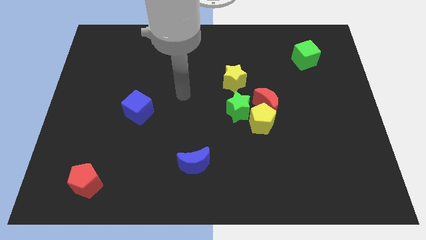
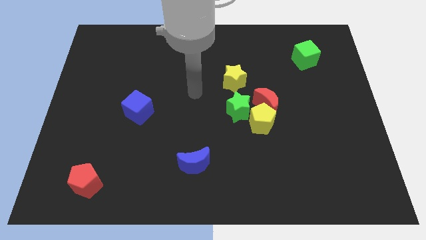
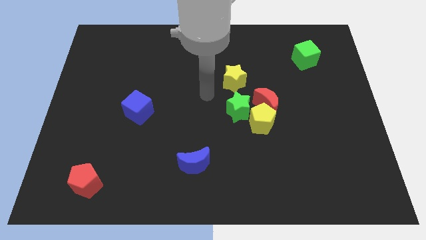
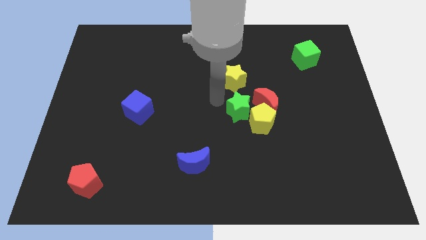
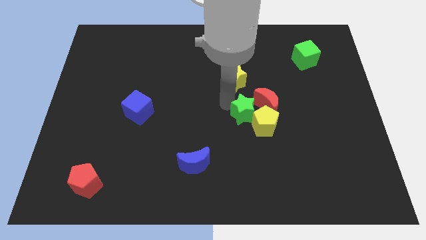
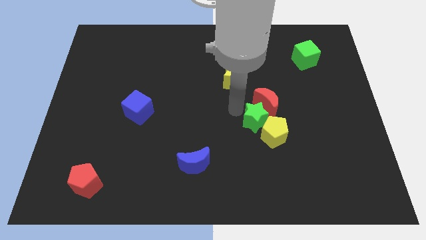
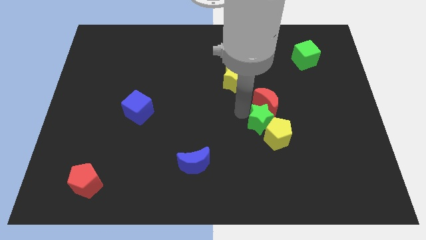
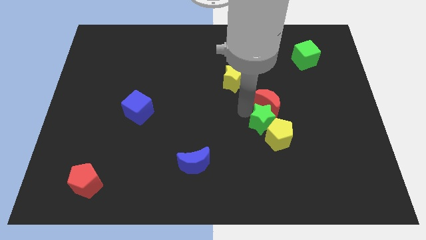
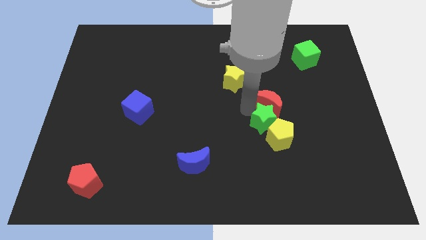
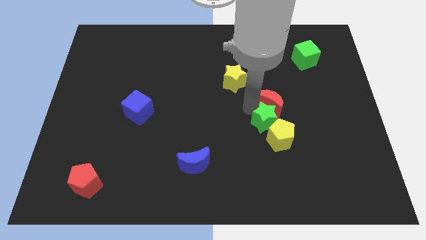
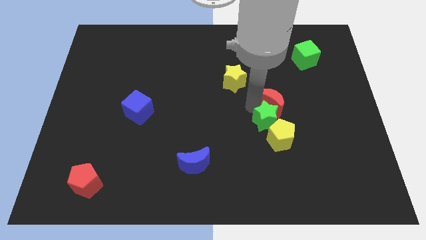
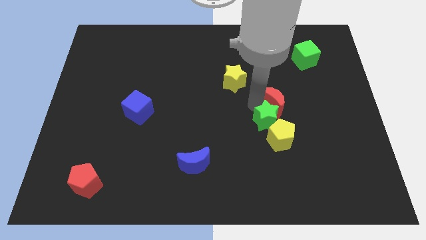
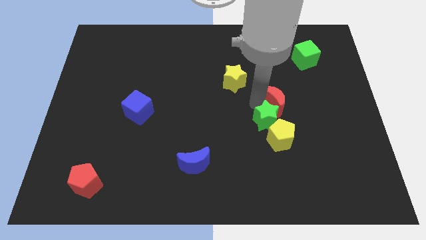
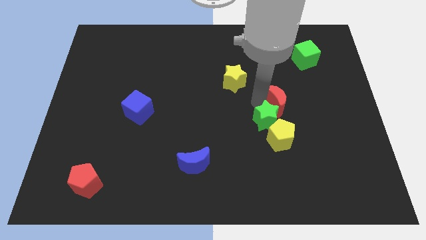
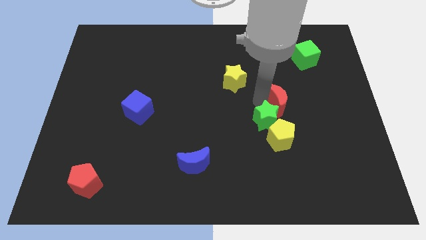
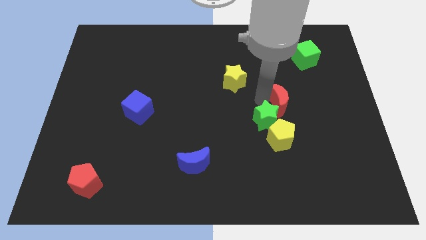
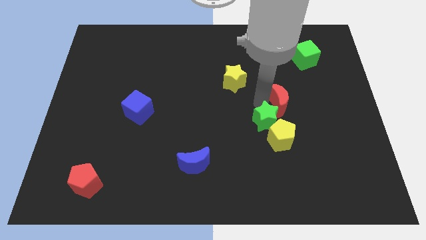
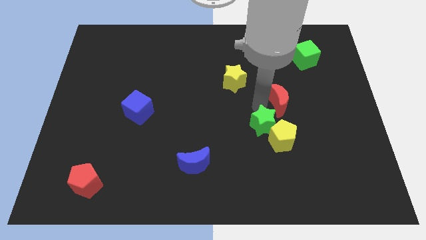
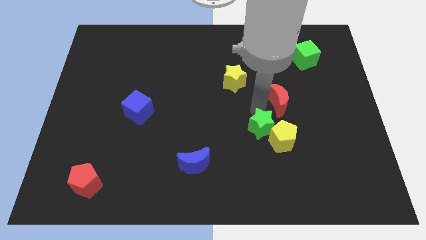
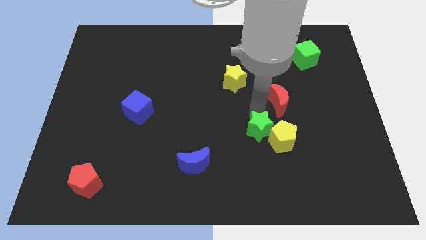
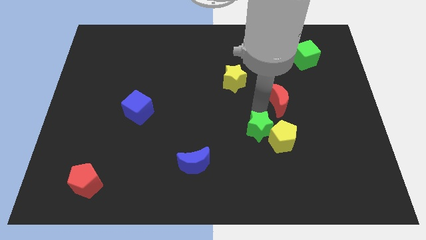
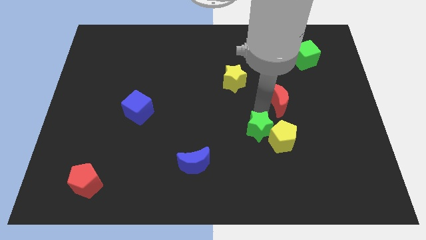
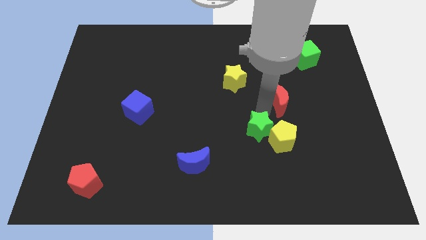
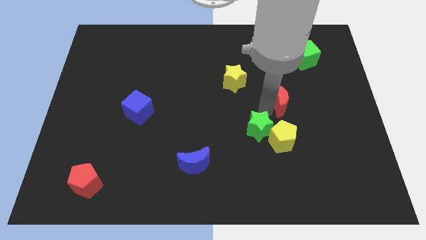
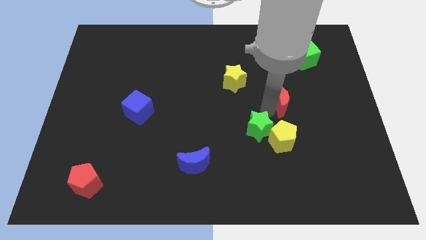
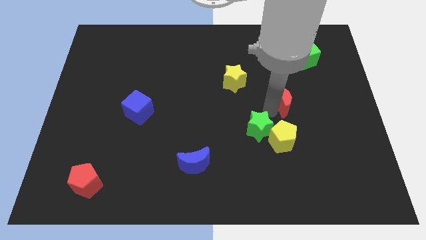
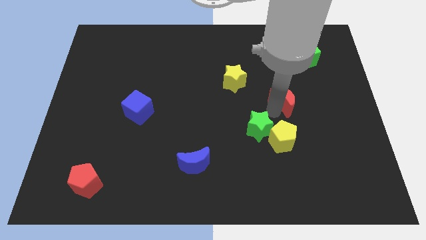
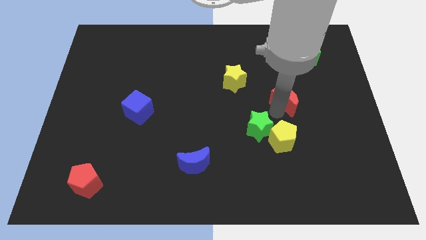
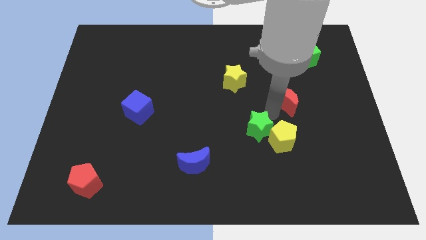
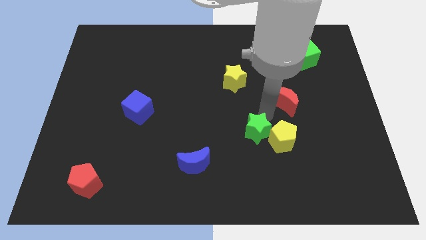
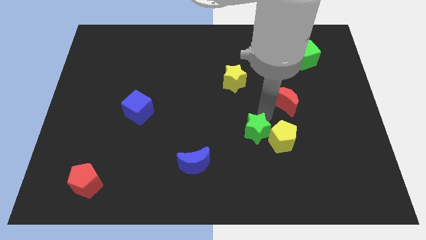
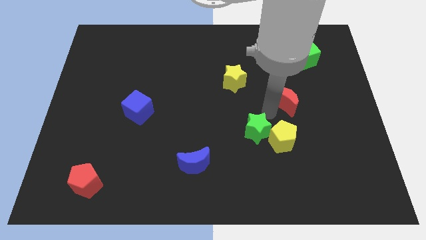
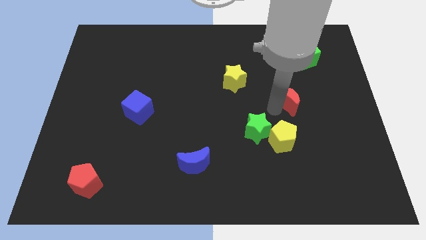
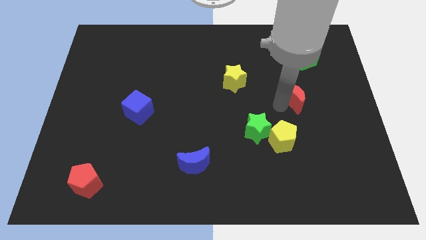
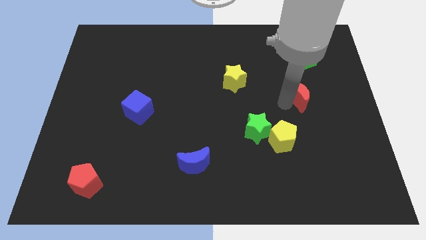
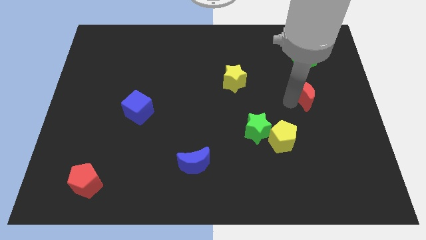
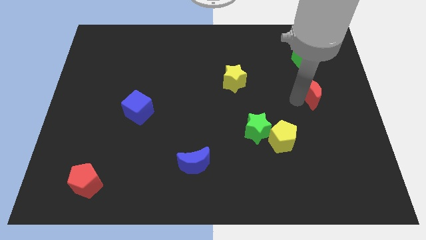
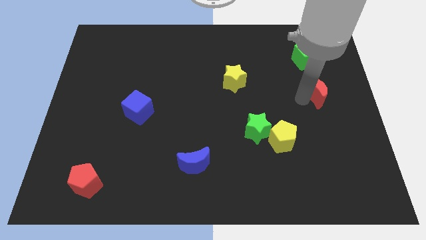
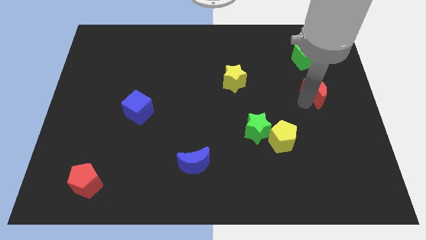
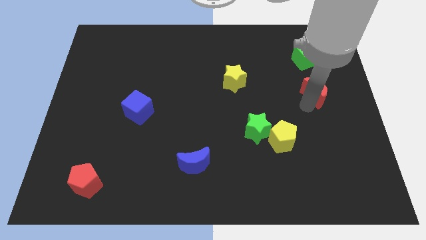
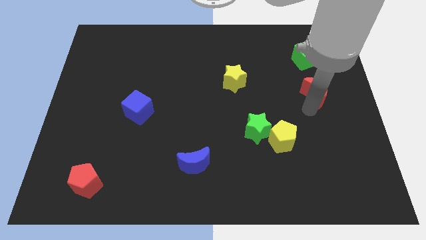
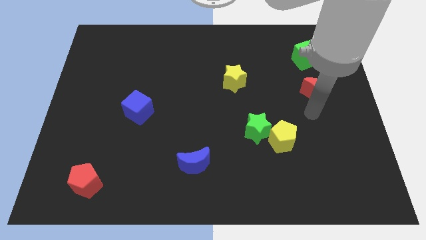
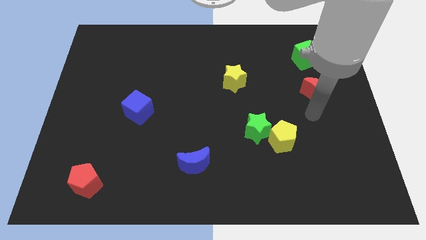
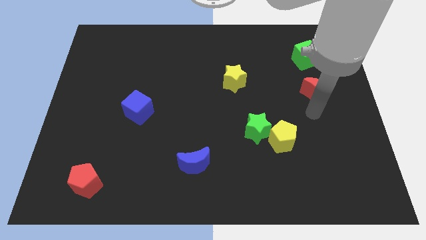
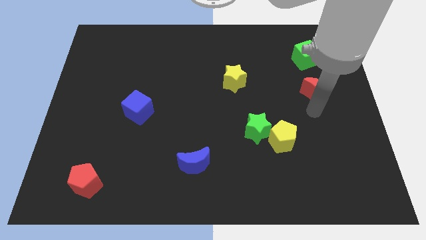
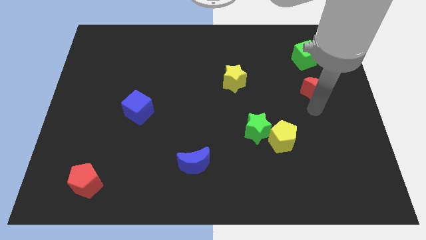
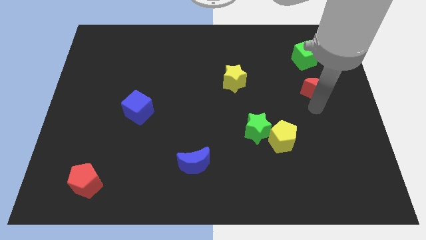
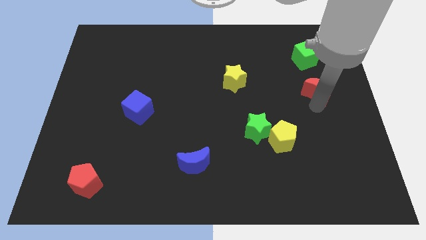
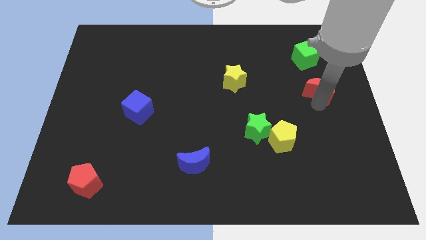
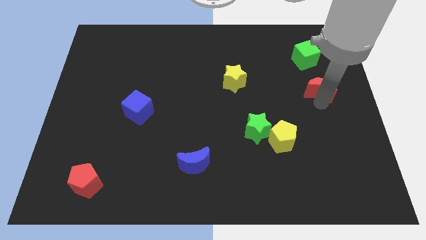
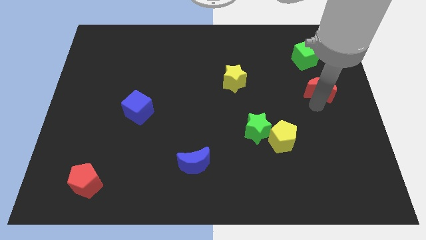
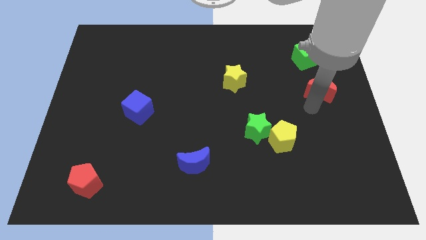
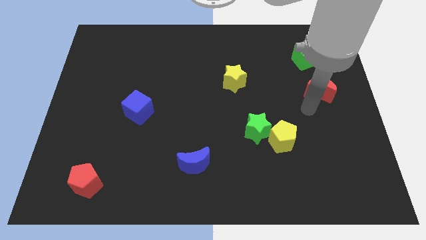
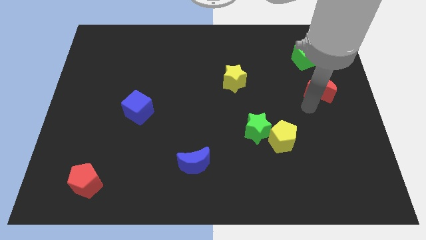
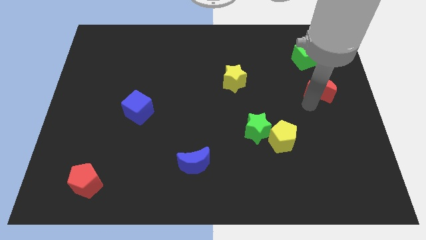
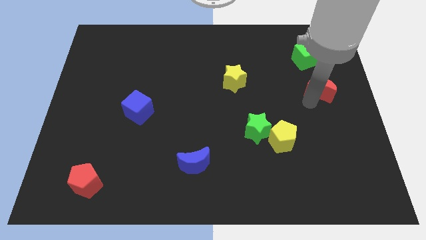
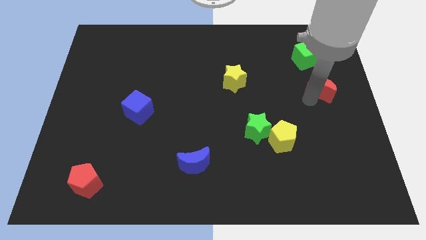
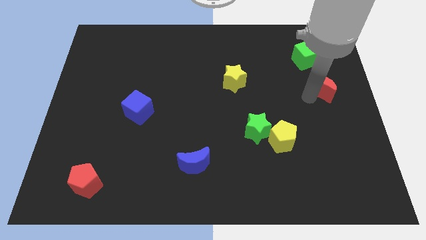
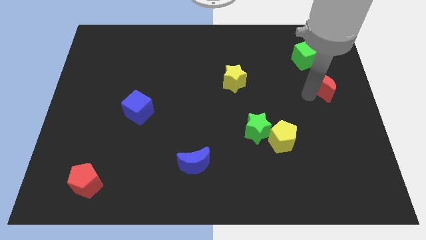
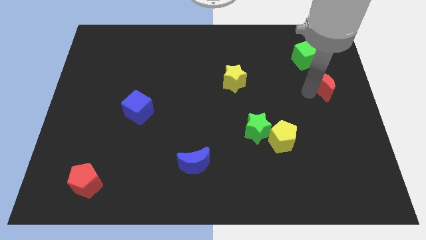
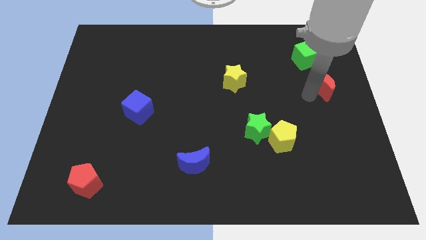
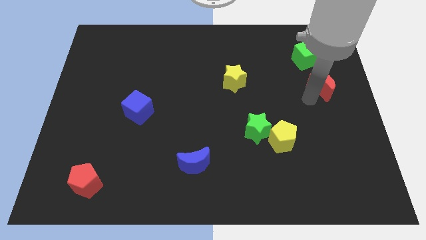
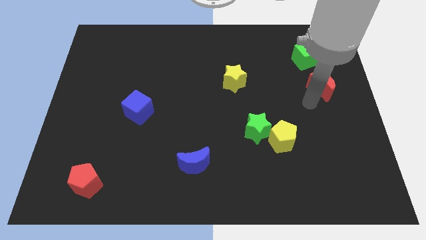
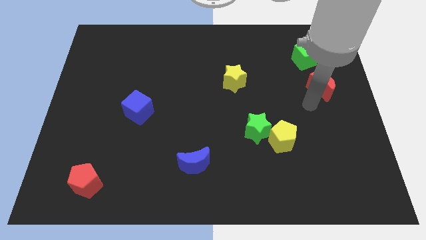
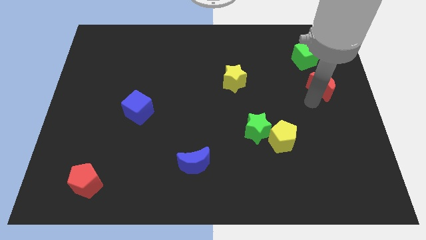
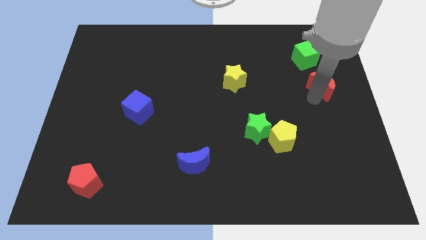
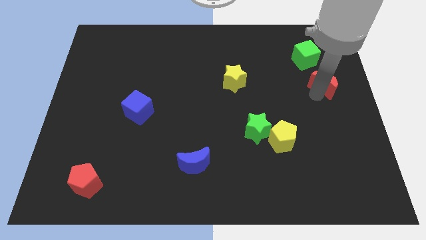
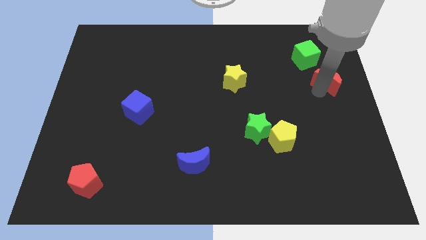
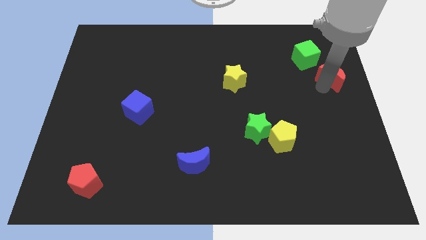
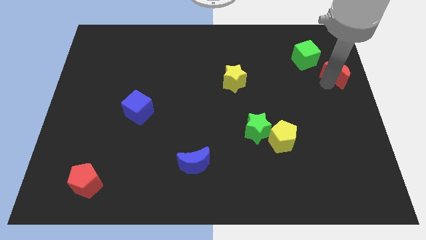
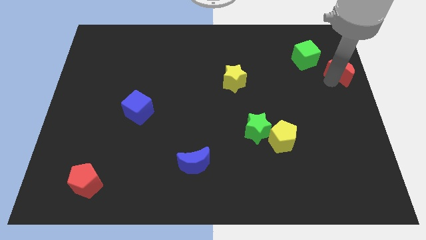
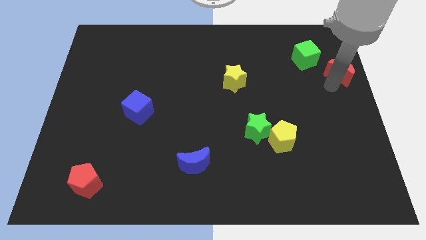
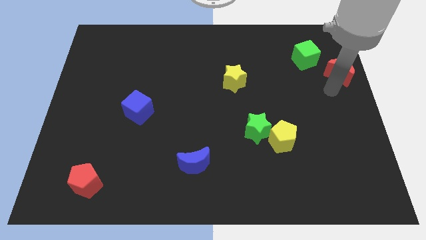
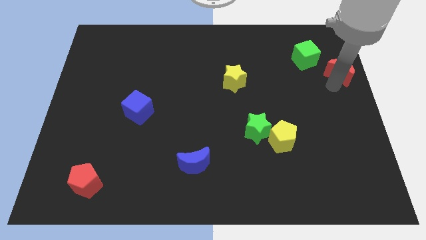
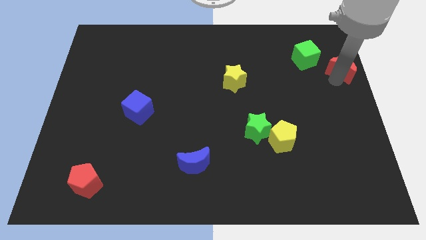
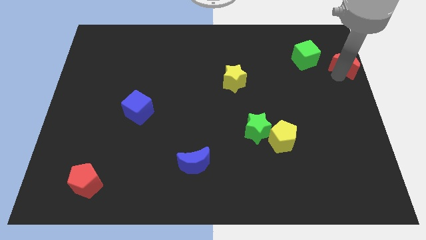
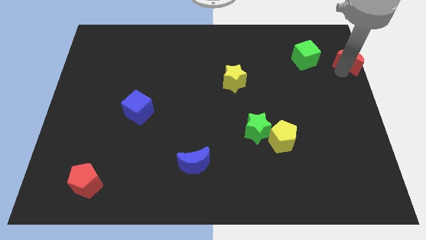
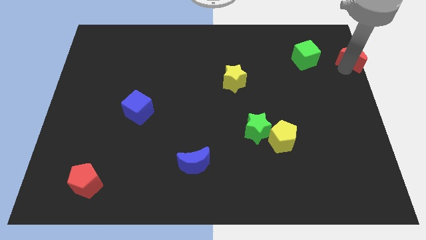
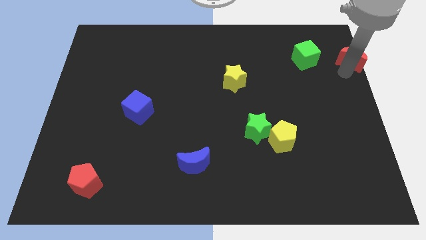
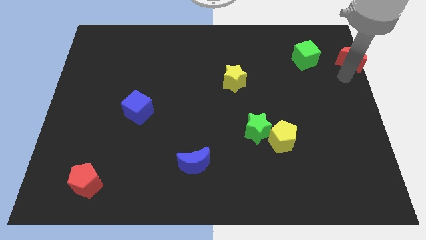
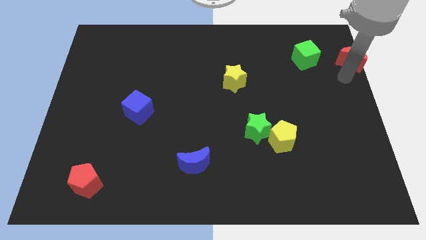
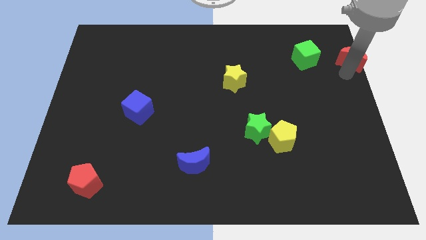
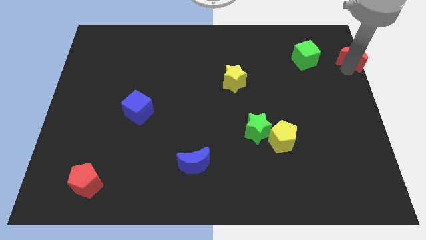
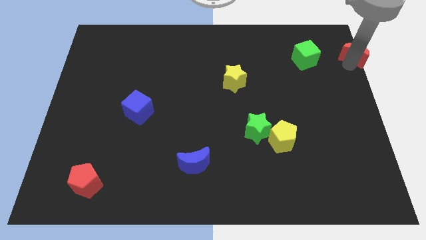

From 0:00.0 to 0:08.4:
slide the red moon to the top right
